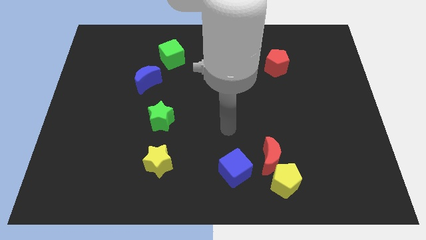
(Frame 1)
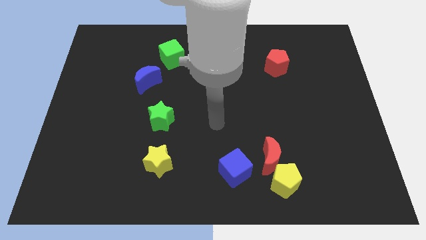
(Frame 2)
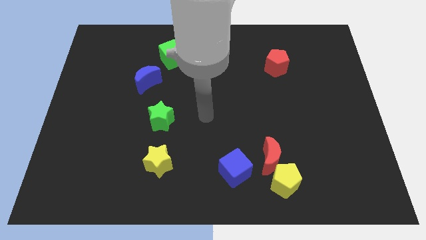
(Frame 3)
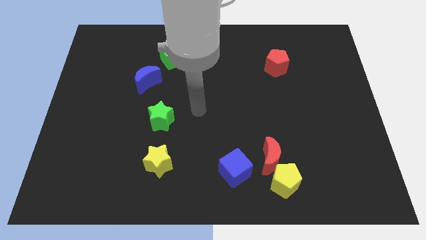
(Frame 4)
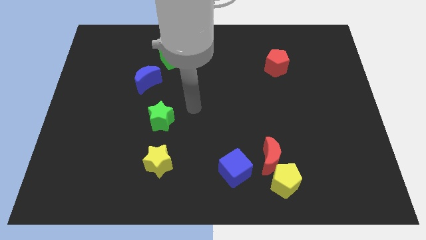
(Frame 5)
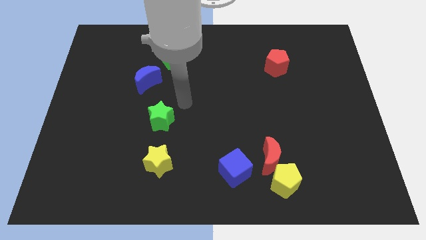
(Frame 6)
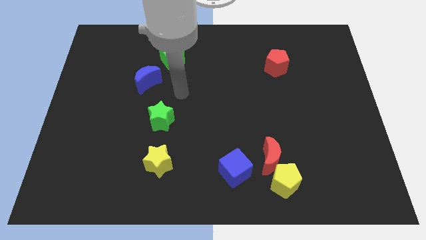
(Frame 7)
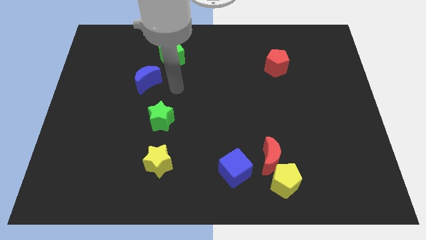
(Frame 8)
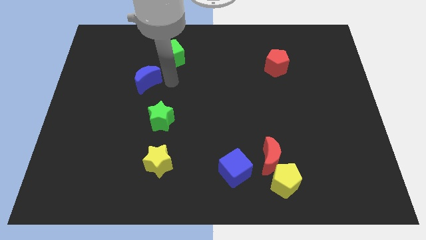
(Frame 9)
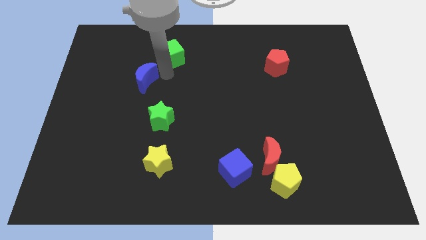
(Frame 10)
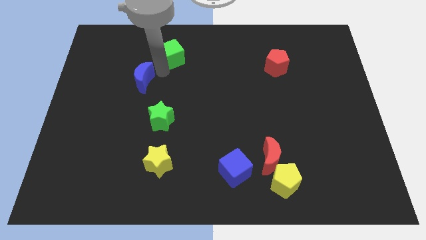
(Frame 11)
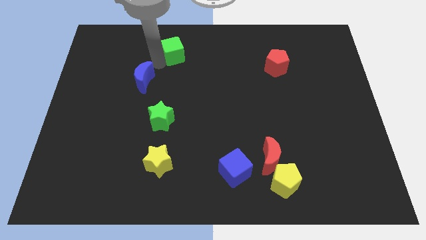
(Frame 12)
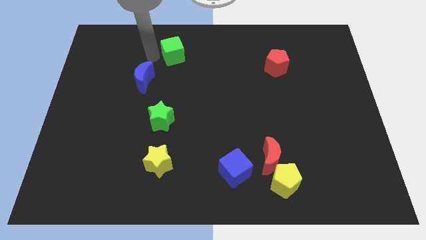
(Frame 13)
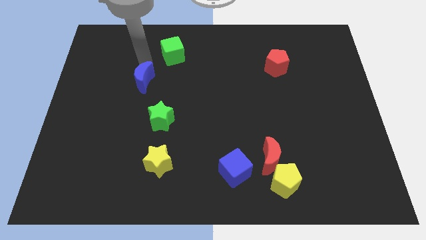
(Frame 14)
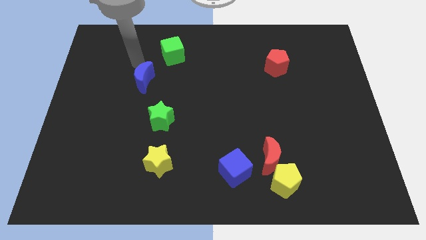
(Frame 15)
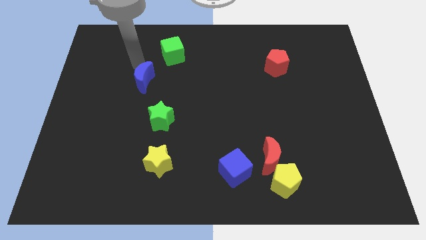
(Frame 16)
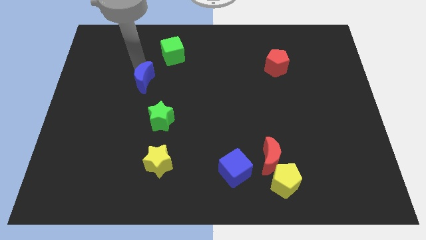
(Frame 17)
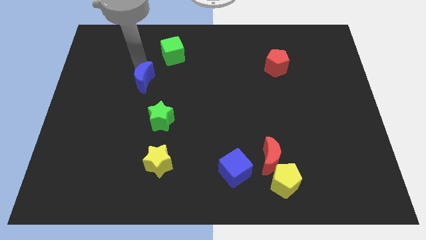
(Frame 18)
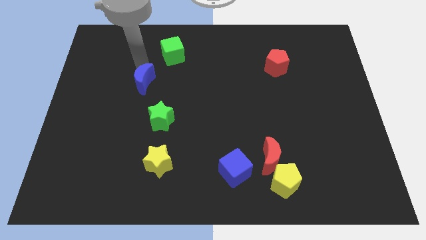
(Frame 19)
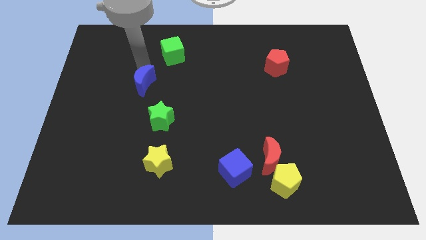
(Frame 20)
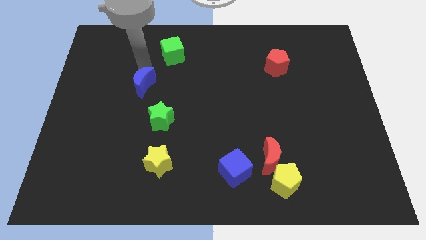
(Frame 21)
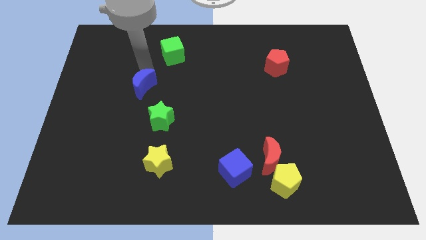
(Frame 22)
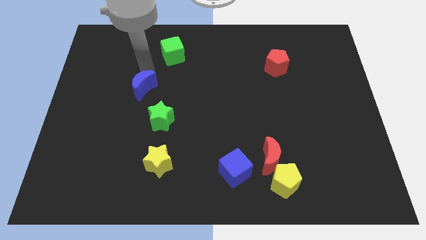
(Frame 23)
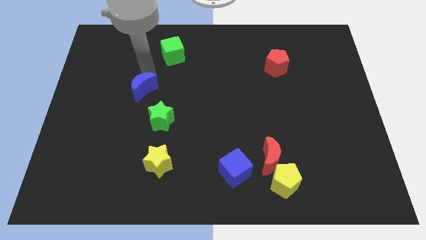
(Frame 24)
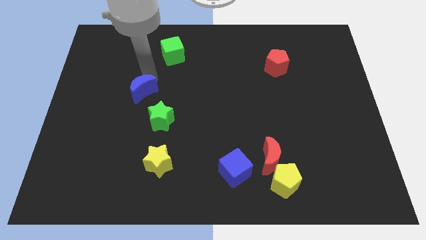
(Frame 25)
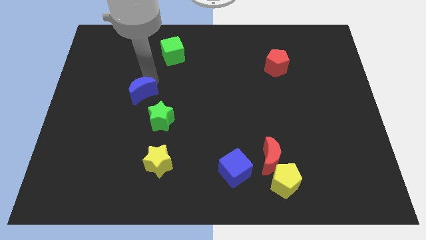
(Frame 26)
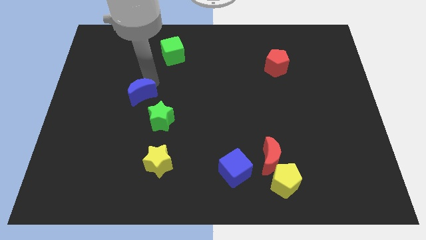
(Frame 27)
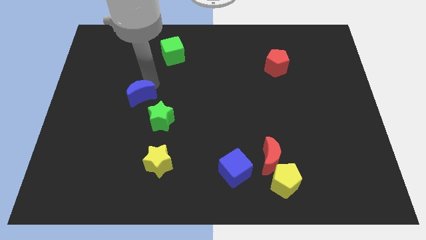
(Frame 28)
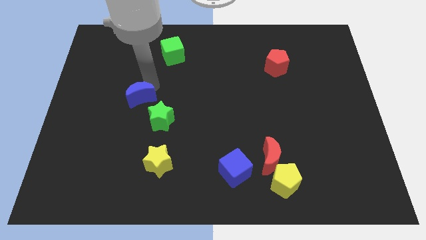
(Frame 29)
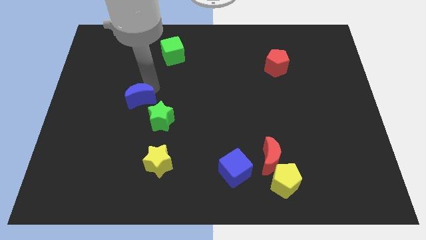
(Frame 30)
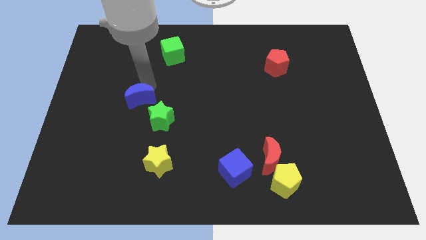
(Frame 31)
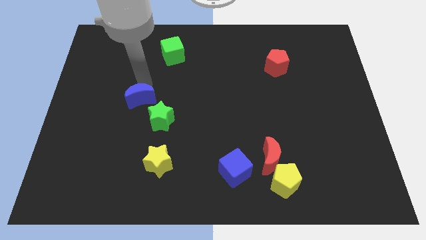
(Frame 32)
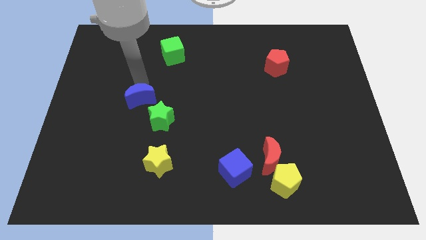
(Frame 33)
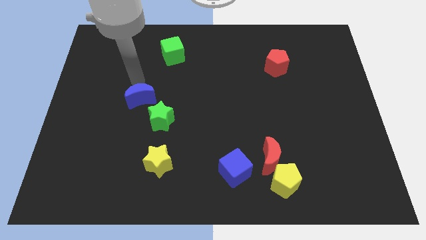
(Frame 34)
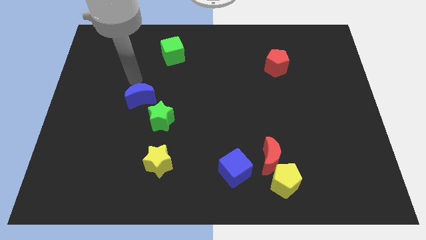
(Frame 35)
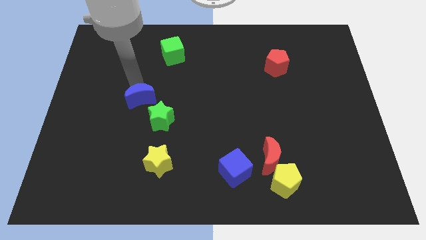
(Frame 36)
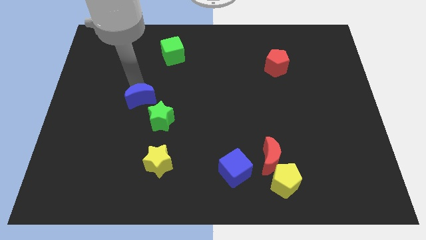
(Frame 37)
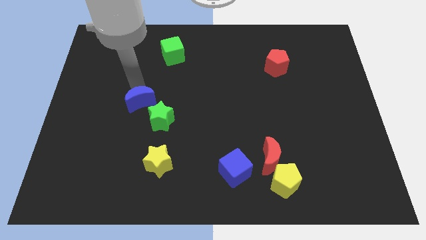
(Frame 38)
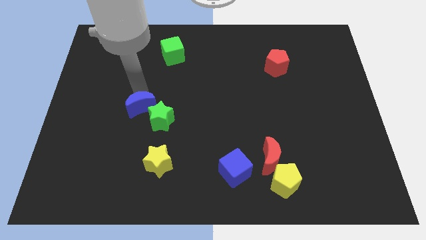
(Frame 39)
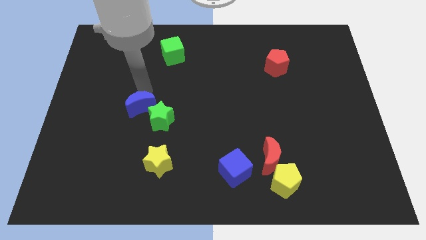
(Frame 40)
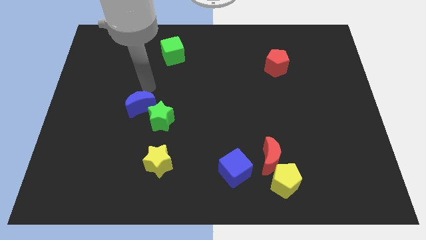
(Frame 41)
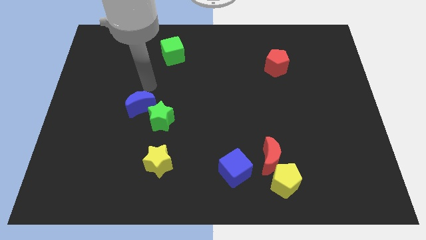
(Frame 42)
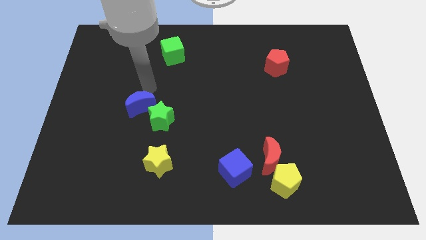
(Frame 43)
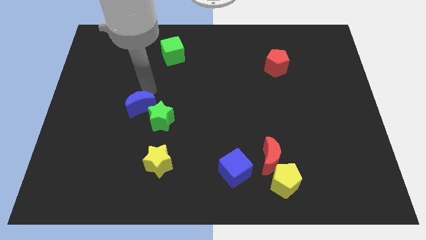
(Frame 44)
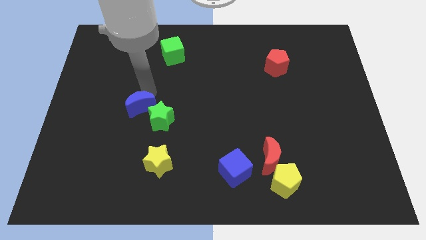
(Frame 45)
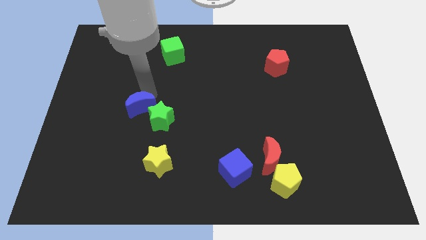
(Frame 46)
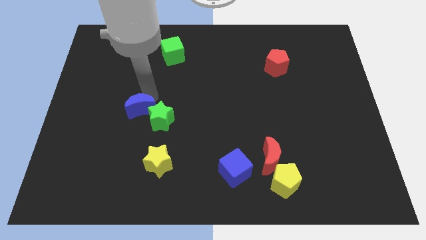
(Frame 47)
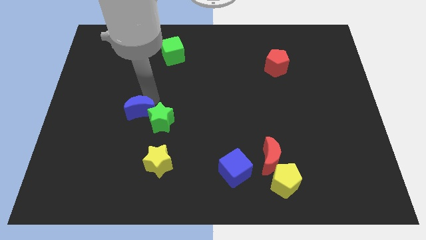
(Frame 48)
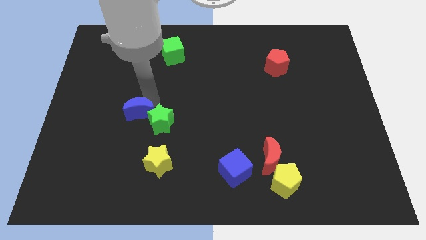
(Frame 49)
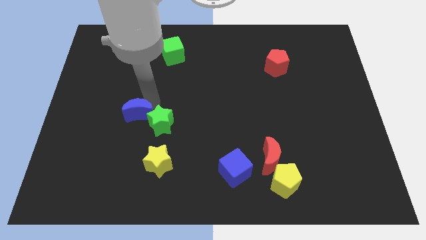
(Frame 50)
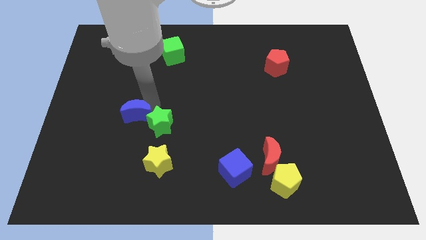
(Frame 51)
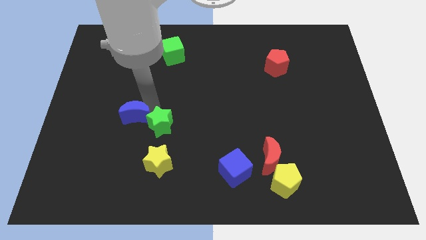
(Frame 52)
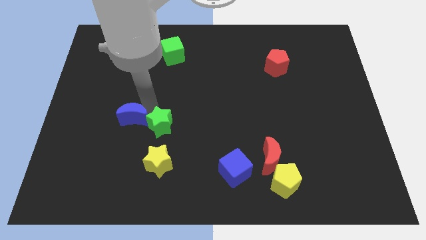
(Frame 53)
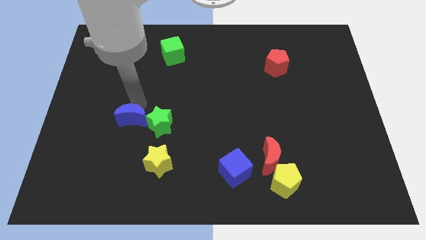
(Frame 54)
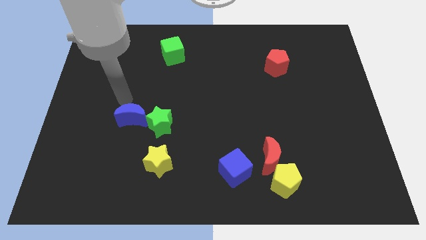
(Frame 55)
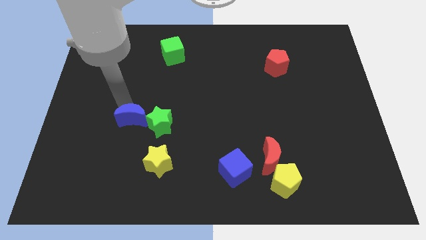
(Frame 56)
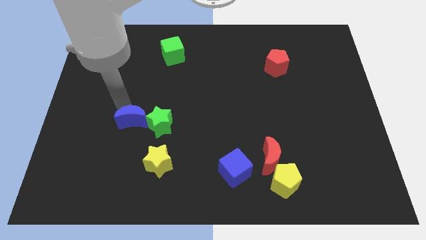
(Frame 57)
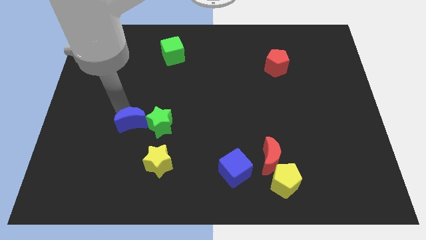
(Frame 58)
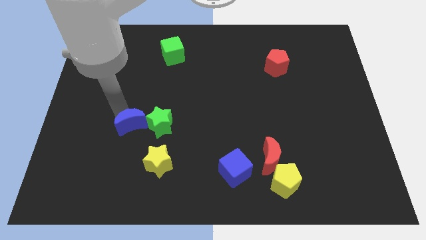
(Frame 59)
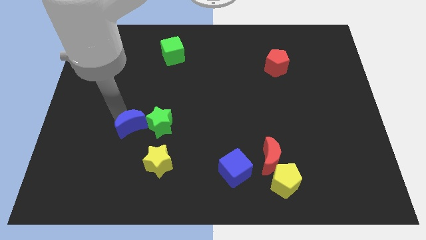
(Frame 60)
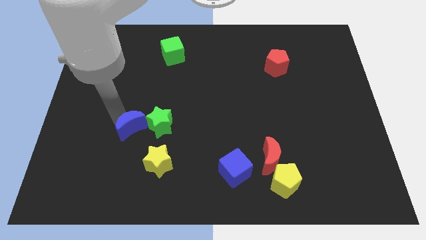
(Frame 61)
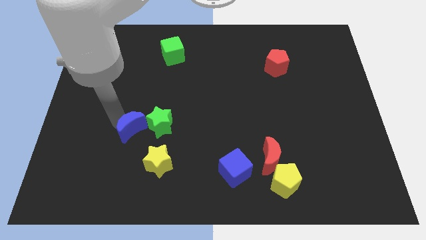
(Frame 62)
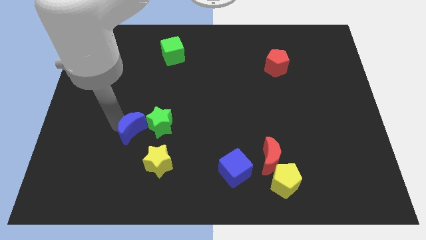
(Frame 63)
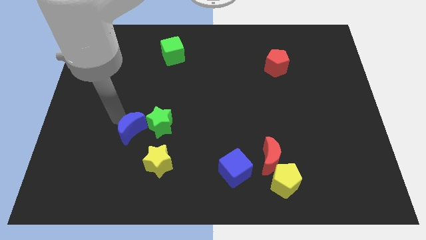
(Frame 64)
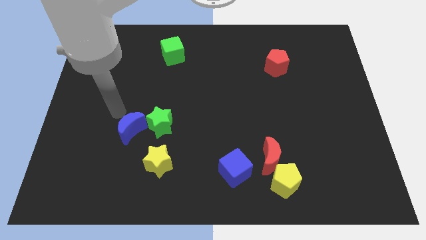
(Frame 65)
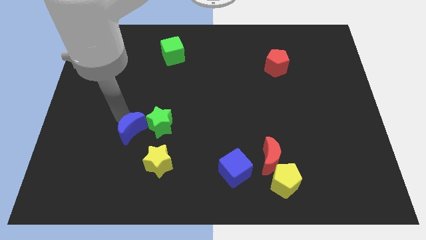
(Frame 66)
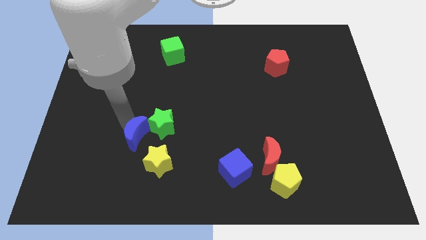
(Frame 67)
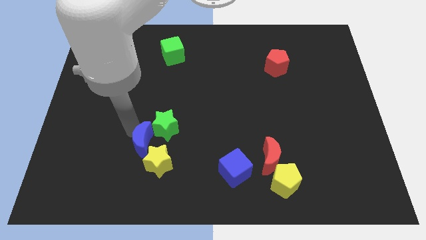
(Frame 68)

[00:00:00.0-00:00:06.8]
slide the blue moon next to the yellow star
